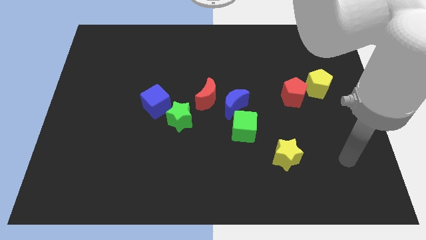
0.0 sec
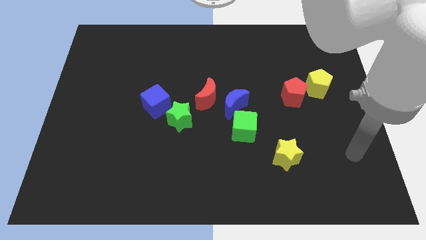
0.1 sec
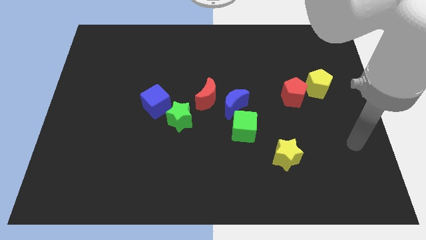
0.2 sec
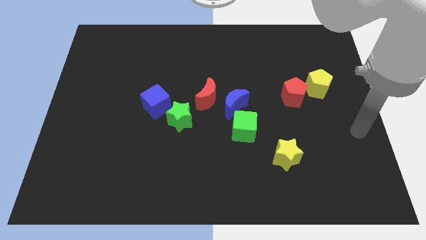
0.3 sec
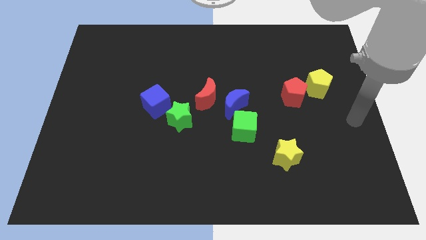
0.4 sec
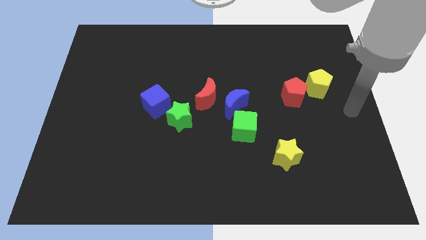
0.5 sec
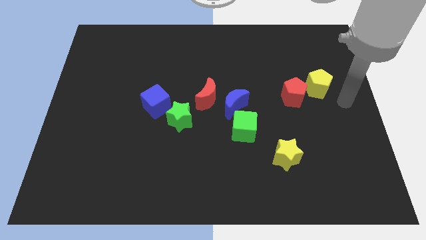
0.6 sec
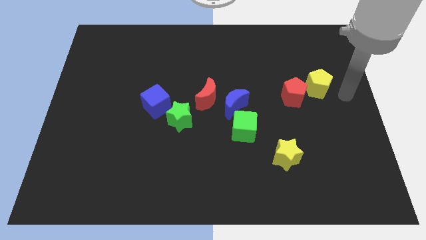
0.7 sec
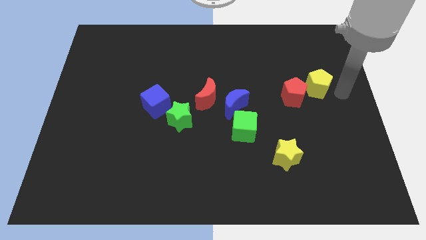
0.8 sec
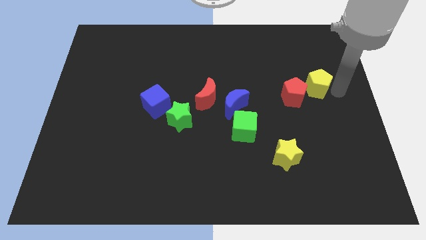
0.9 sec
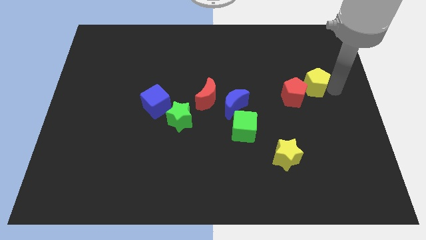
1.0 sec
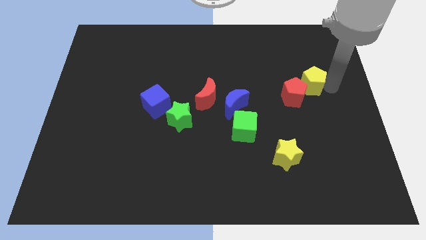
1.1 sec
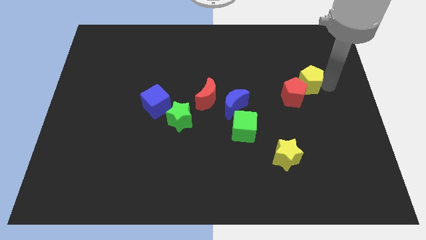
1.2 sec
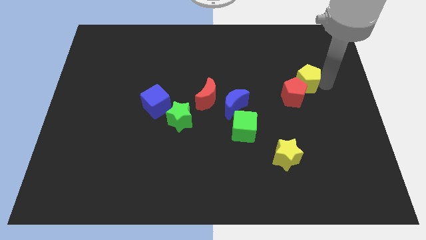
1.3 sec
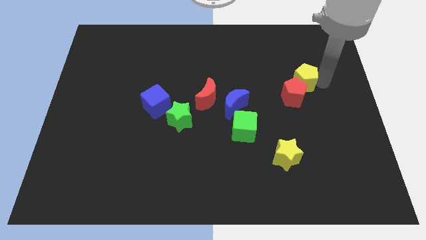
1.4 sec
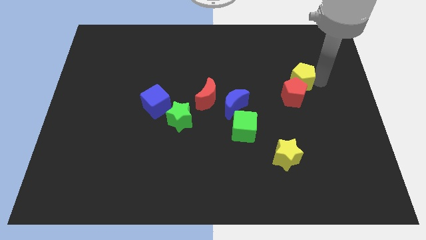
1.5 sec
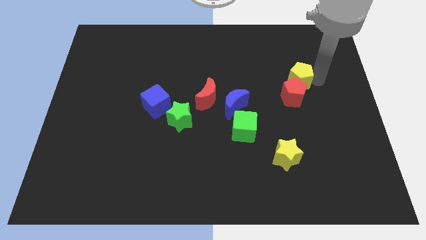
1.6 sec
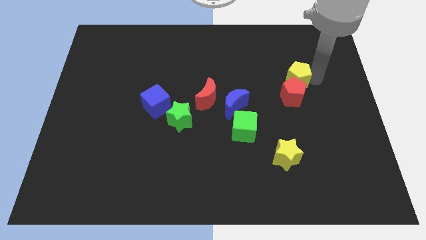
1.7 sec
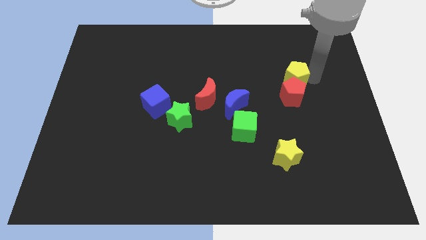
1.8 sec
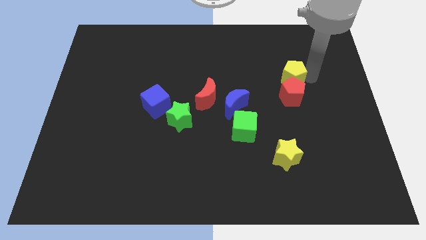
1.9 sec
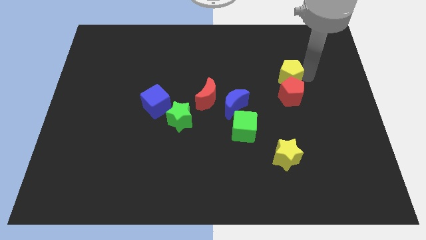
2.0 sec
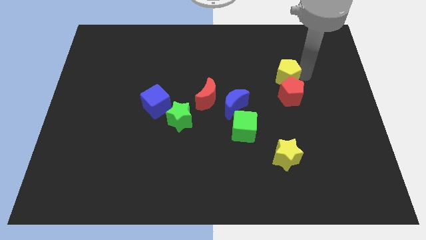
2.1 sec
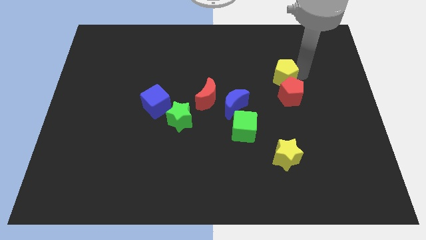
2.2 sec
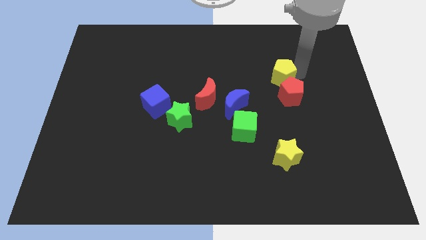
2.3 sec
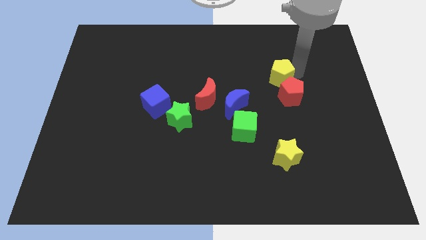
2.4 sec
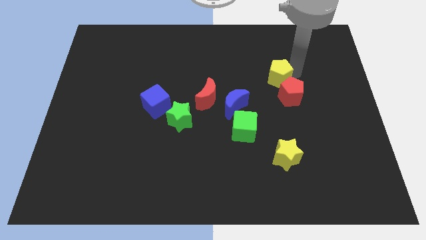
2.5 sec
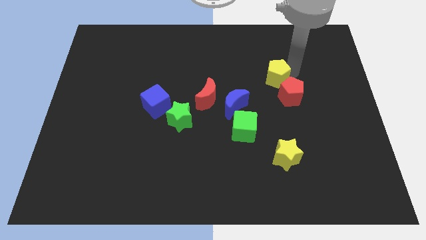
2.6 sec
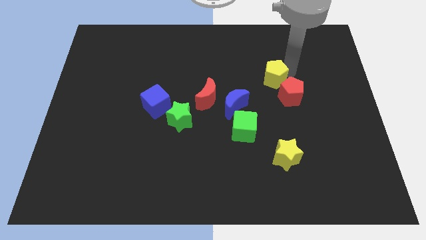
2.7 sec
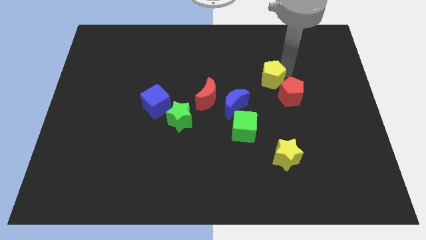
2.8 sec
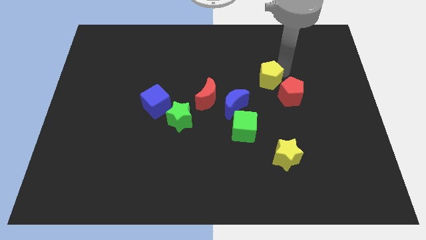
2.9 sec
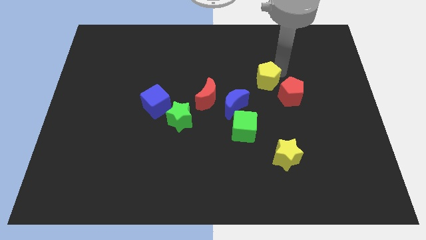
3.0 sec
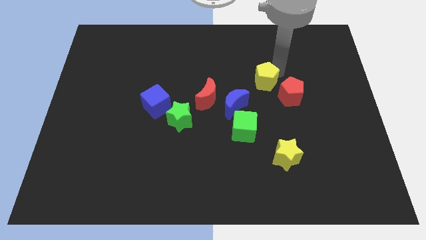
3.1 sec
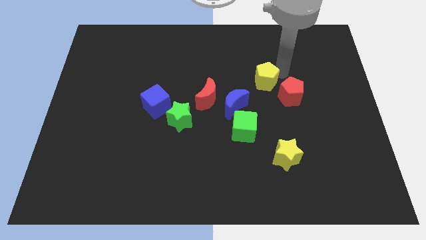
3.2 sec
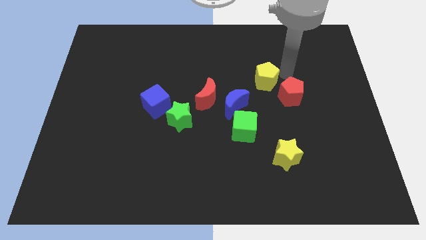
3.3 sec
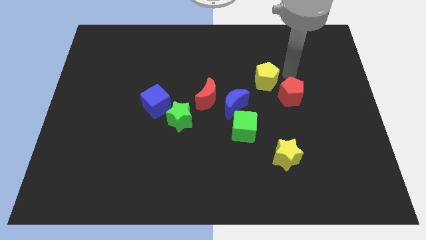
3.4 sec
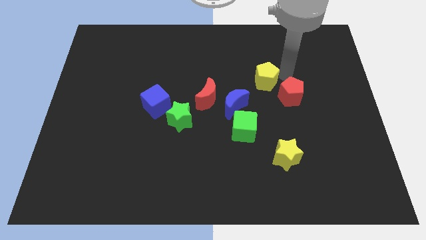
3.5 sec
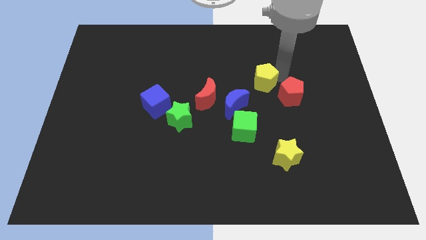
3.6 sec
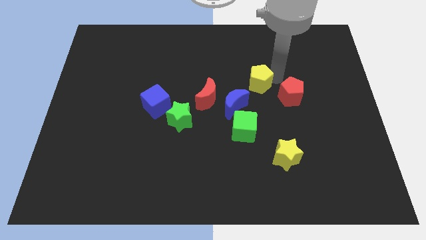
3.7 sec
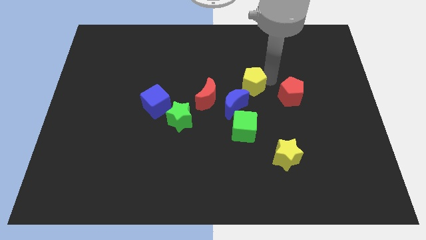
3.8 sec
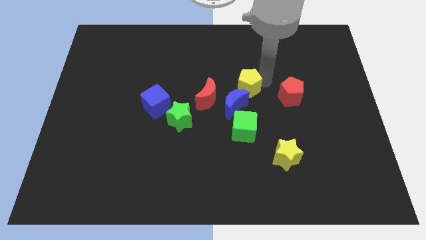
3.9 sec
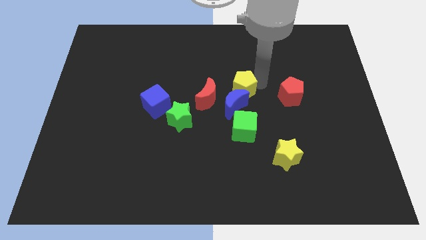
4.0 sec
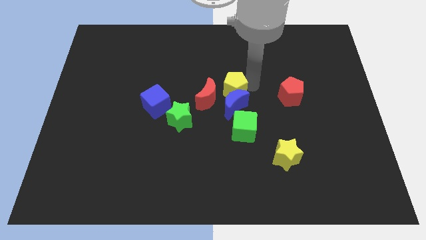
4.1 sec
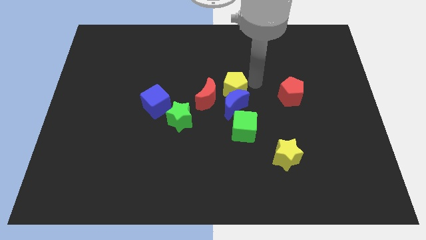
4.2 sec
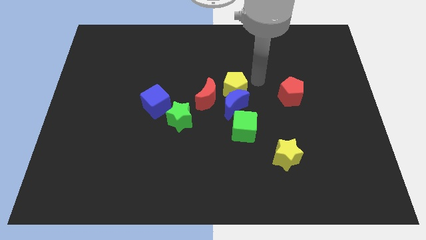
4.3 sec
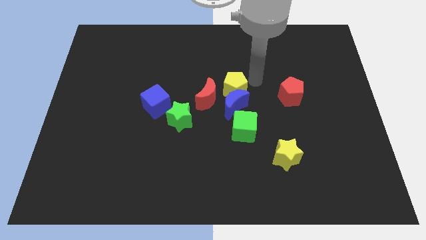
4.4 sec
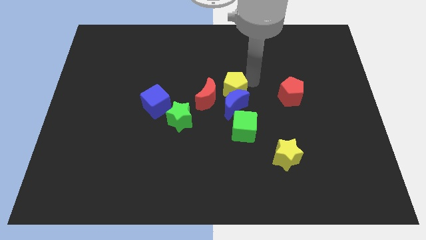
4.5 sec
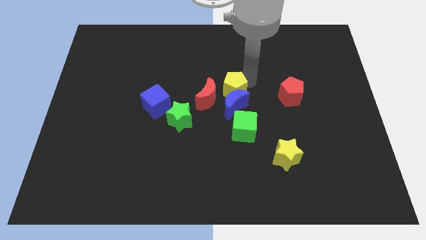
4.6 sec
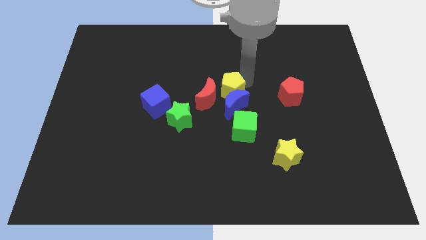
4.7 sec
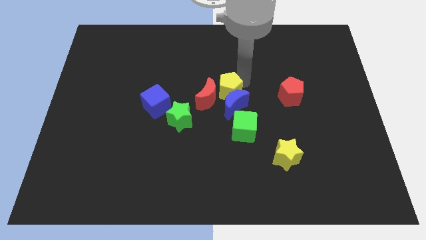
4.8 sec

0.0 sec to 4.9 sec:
push the yellow pentagon towards the red moon

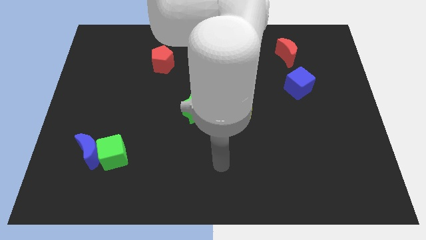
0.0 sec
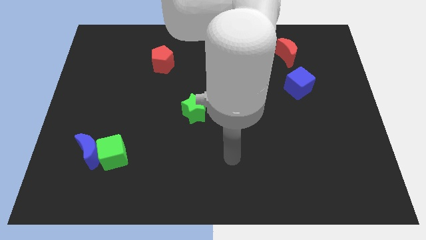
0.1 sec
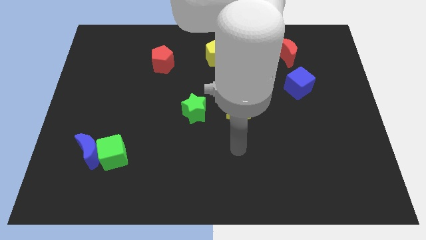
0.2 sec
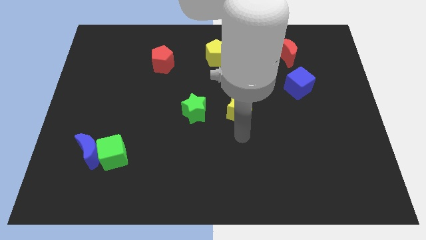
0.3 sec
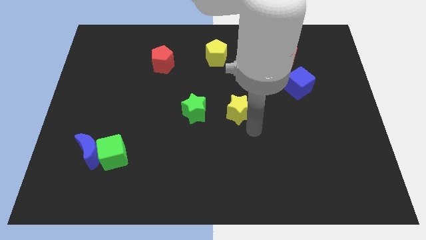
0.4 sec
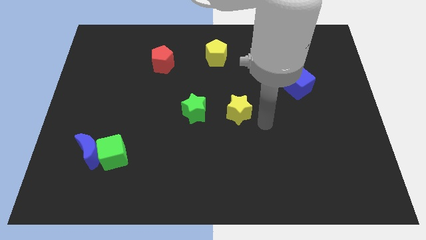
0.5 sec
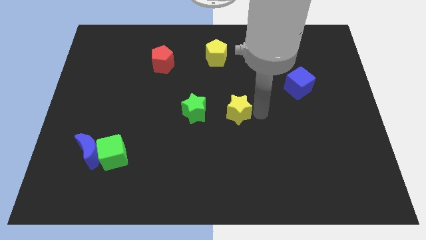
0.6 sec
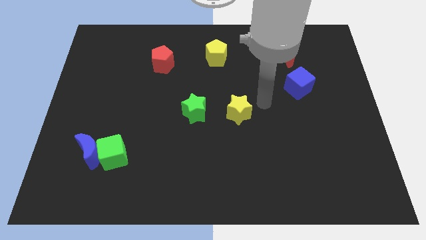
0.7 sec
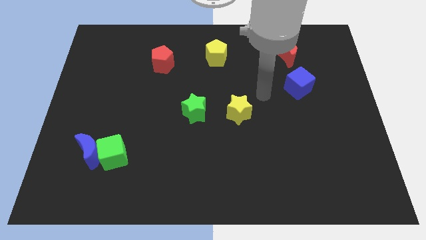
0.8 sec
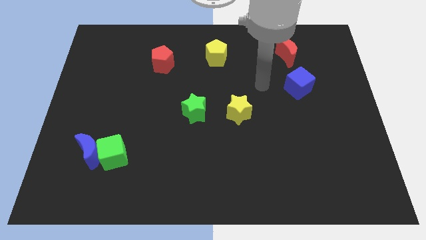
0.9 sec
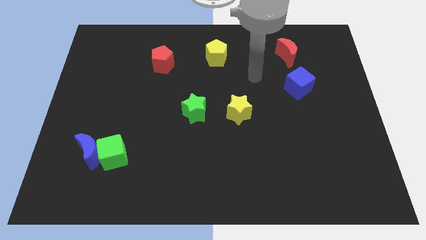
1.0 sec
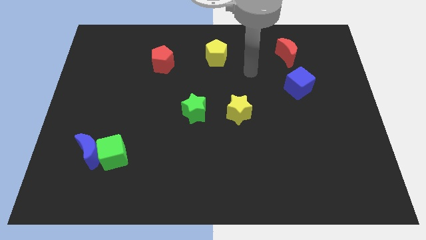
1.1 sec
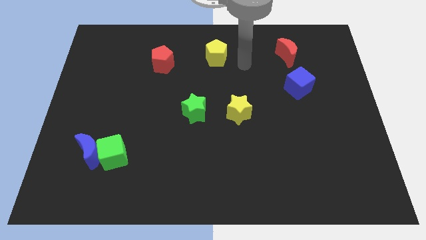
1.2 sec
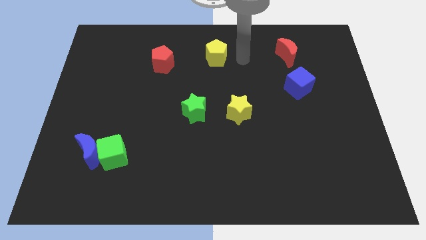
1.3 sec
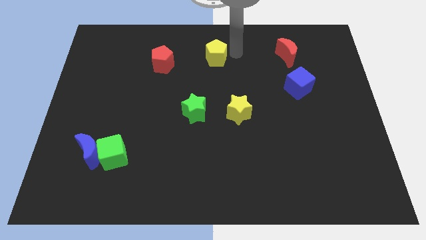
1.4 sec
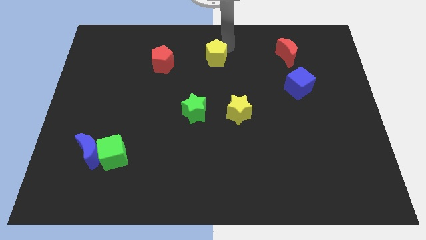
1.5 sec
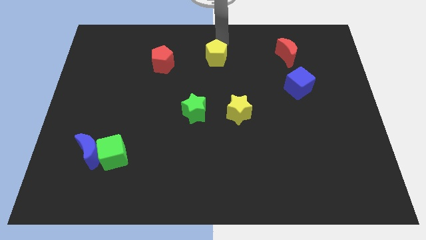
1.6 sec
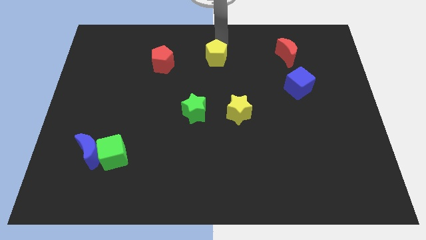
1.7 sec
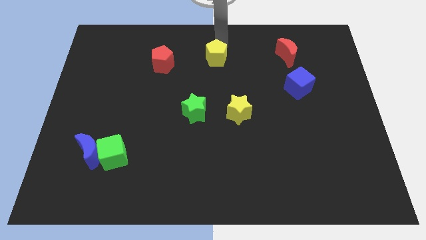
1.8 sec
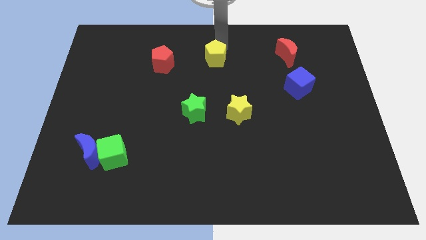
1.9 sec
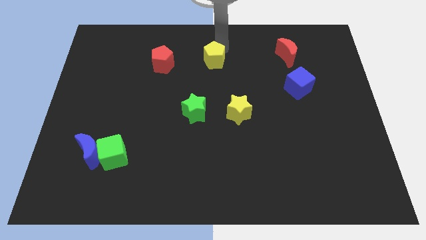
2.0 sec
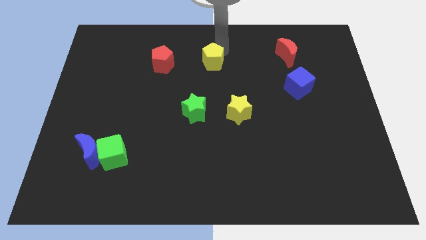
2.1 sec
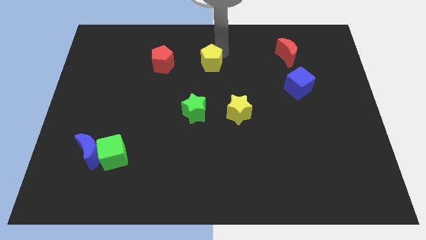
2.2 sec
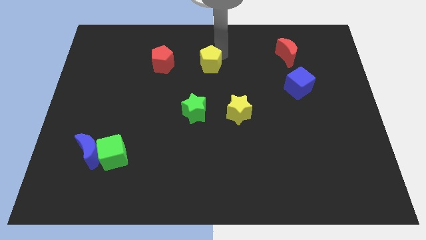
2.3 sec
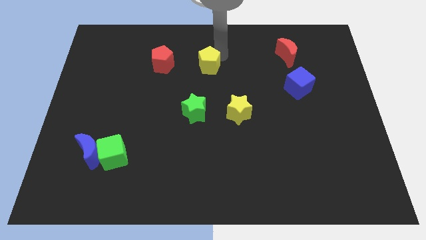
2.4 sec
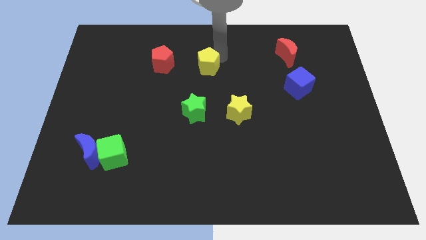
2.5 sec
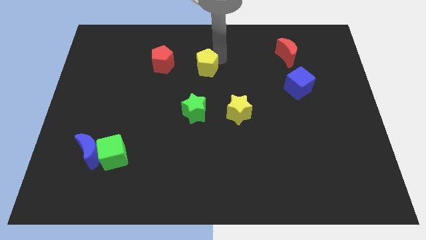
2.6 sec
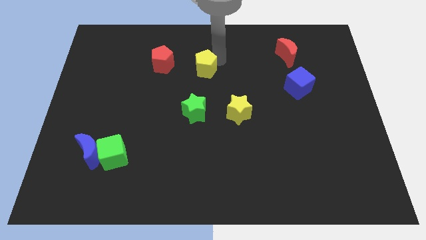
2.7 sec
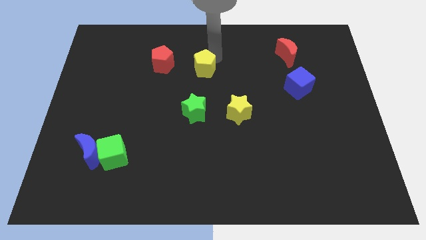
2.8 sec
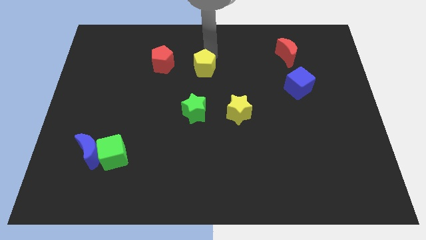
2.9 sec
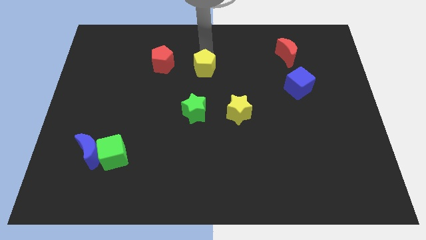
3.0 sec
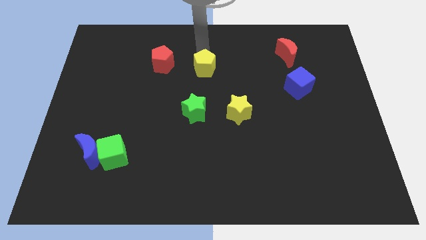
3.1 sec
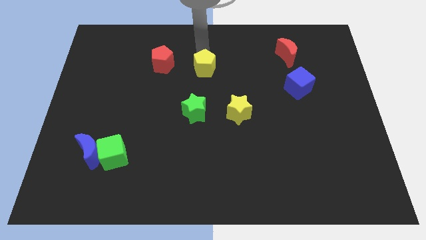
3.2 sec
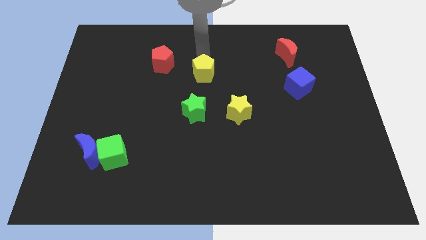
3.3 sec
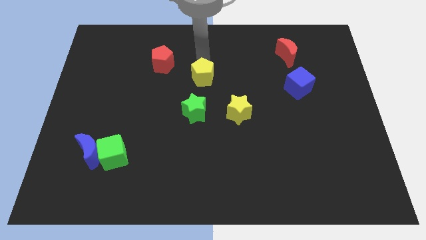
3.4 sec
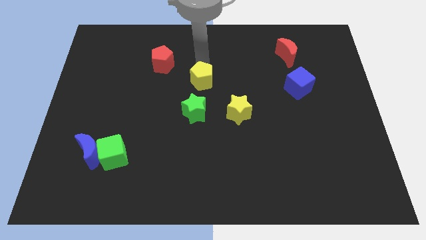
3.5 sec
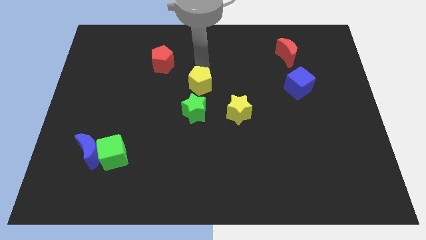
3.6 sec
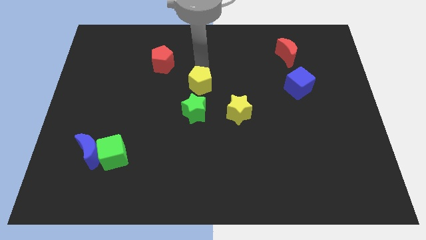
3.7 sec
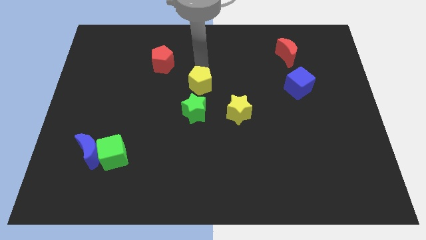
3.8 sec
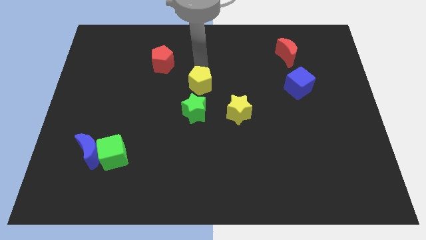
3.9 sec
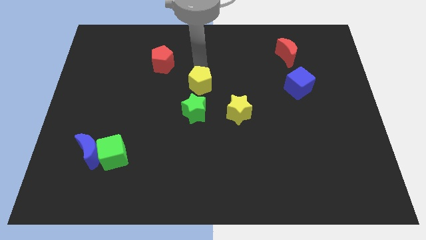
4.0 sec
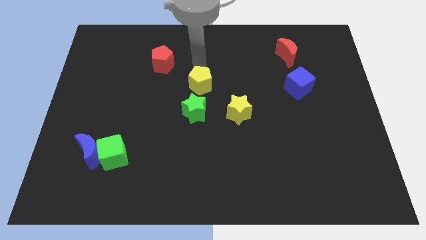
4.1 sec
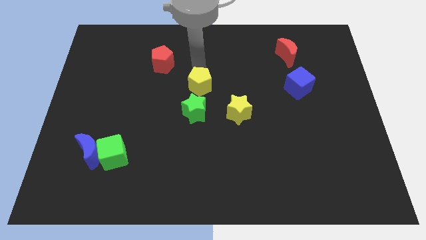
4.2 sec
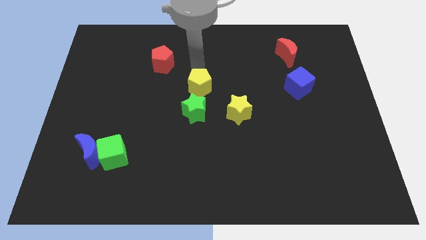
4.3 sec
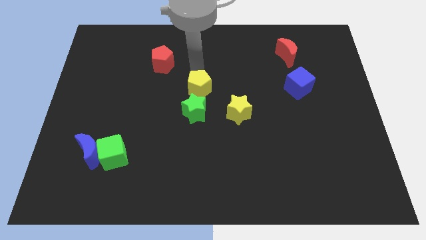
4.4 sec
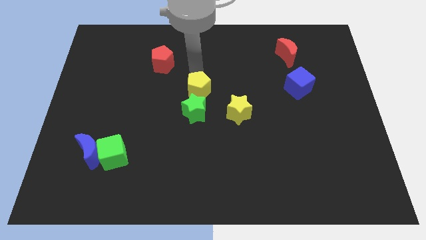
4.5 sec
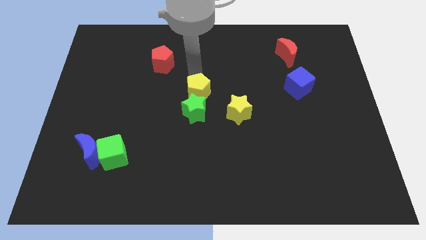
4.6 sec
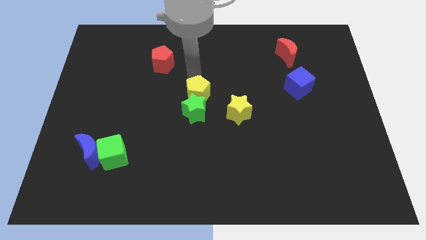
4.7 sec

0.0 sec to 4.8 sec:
slide the yellow pentagon to the green star
